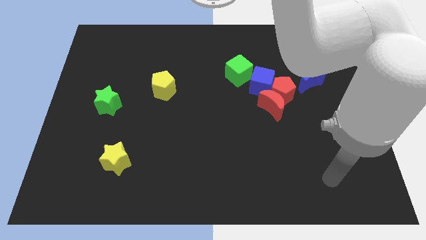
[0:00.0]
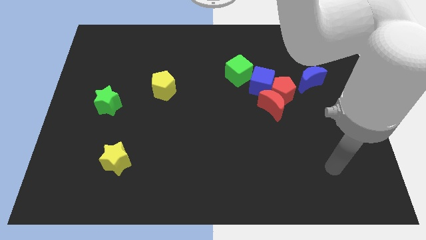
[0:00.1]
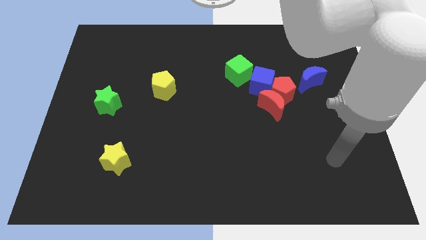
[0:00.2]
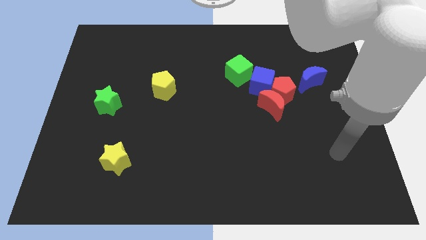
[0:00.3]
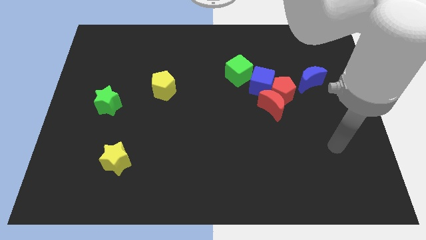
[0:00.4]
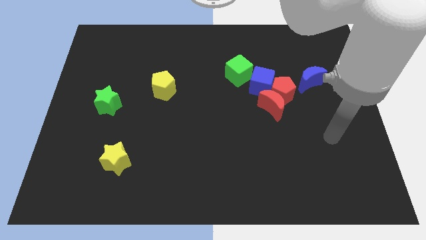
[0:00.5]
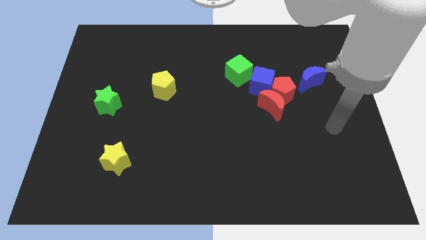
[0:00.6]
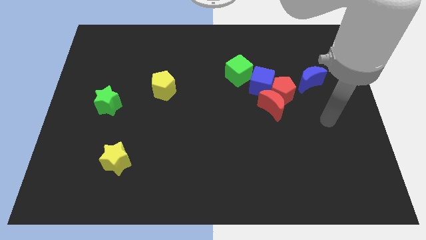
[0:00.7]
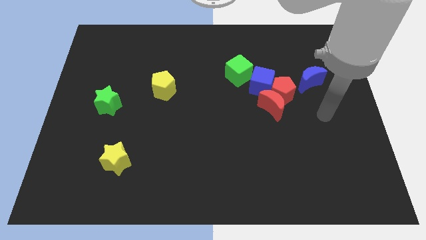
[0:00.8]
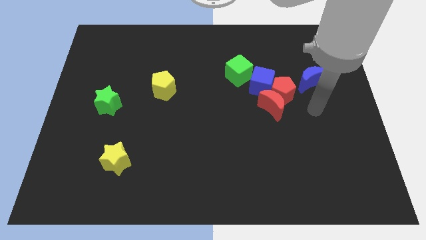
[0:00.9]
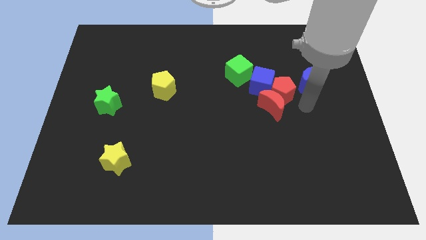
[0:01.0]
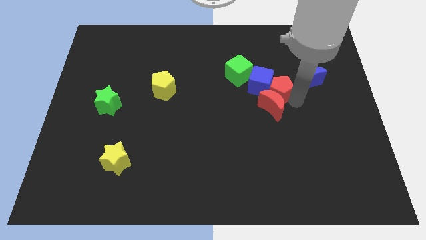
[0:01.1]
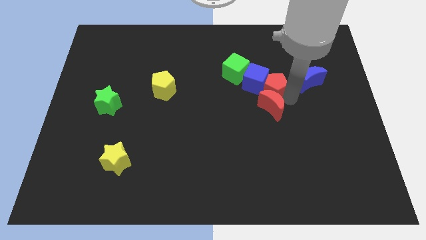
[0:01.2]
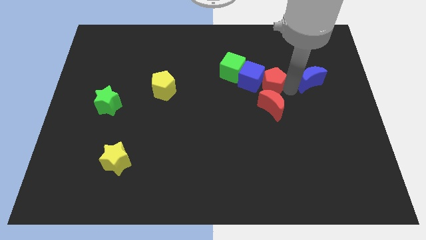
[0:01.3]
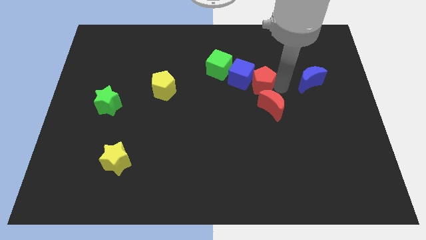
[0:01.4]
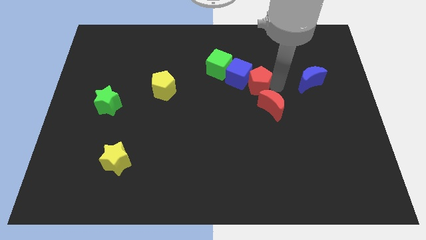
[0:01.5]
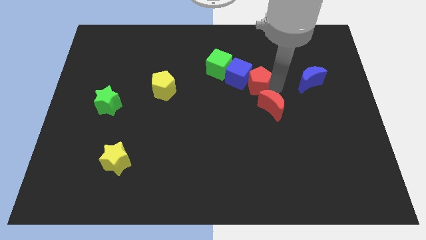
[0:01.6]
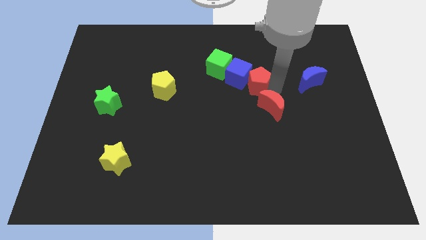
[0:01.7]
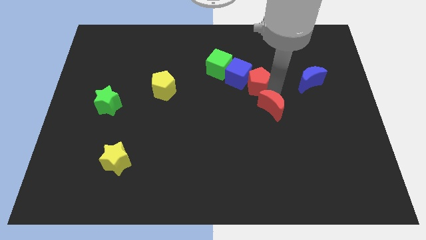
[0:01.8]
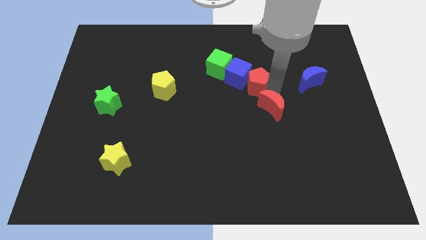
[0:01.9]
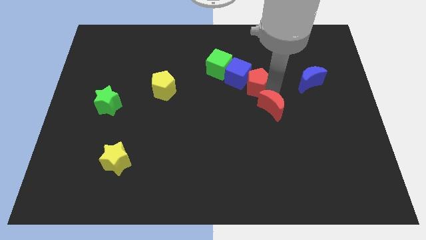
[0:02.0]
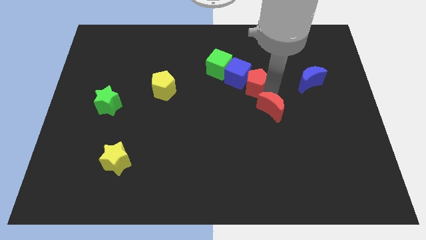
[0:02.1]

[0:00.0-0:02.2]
pull the red moon apart from the red pentagon and blue cube

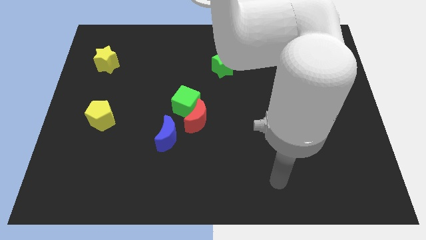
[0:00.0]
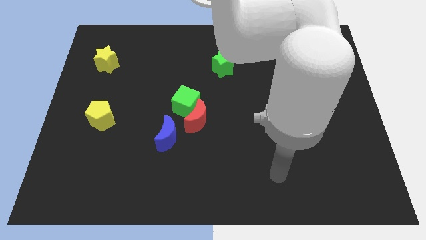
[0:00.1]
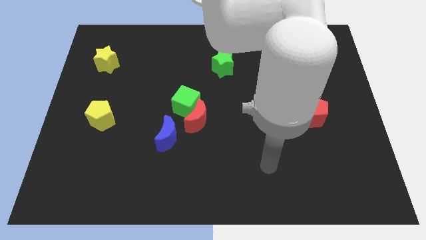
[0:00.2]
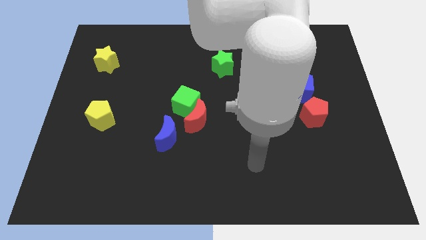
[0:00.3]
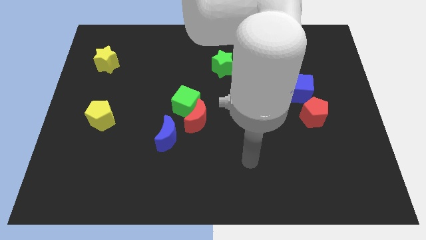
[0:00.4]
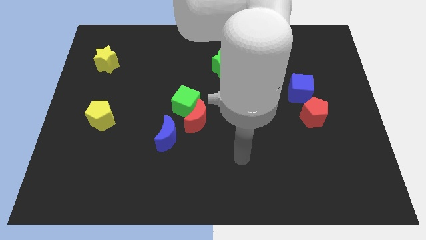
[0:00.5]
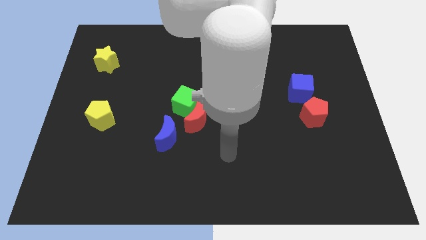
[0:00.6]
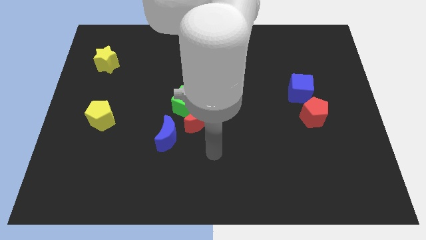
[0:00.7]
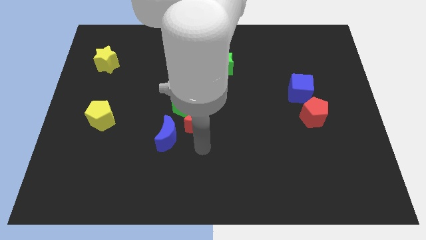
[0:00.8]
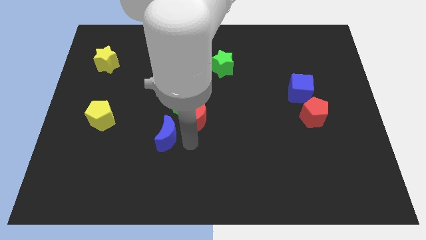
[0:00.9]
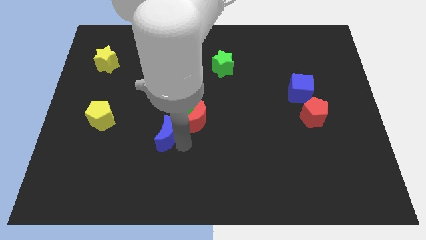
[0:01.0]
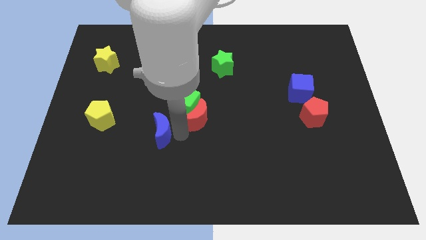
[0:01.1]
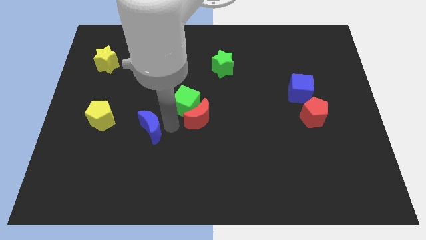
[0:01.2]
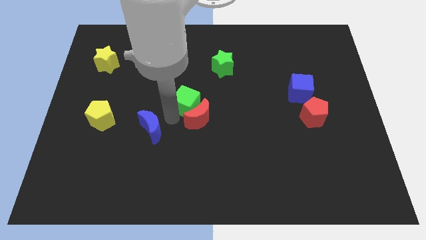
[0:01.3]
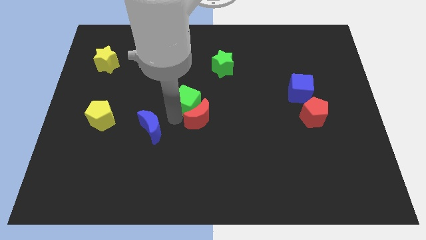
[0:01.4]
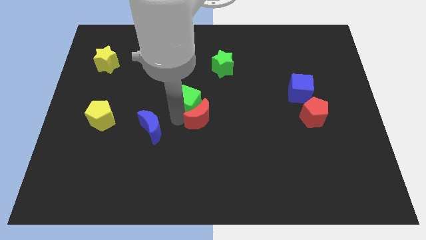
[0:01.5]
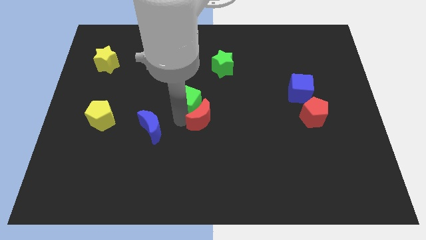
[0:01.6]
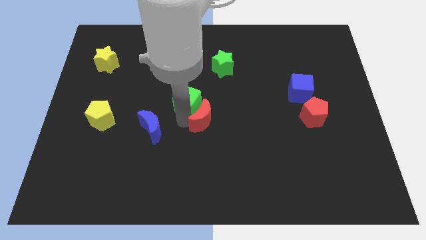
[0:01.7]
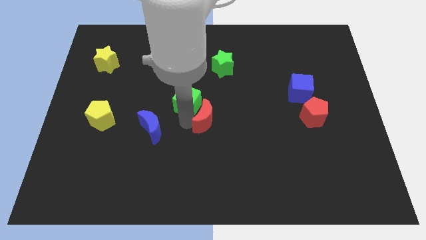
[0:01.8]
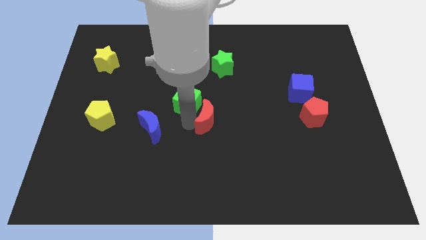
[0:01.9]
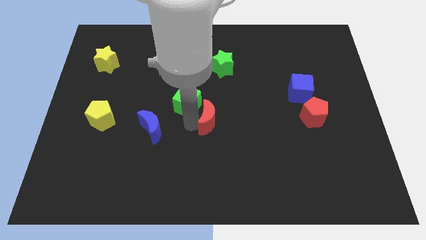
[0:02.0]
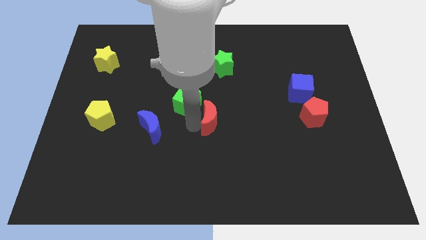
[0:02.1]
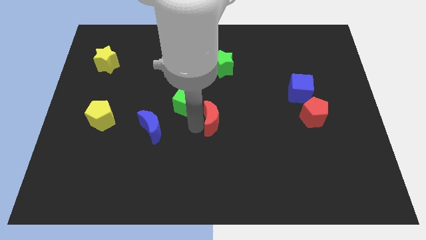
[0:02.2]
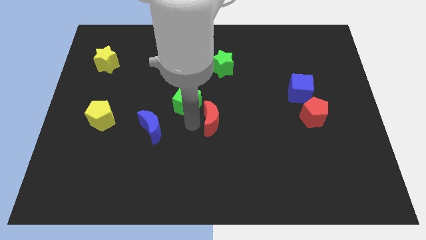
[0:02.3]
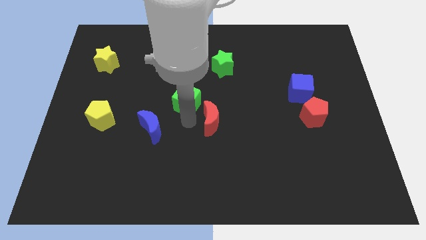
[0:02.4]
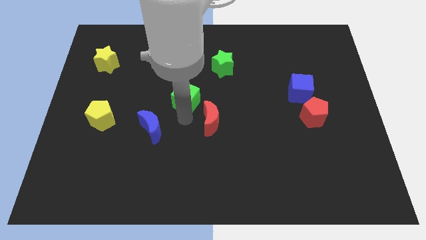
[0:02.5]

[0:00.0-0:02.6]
pull the red moon apart from the green cube and blue moon

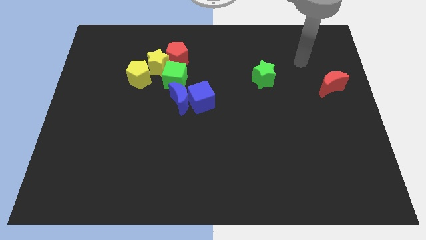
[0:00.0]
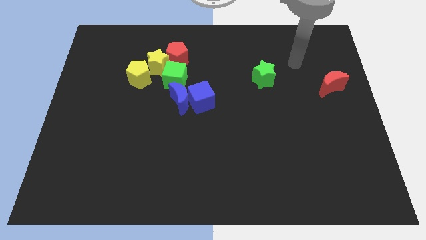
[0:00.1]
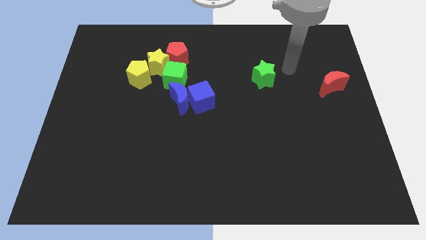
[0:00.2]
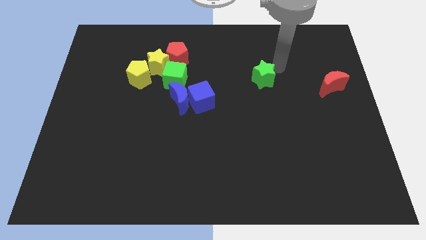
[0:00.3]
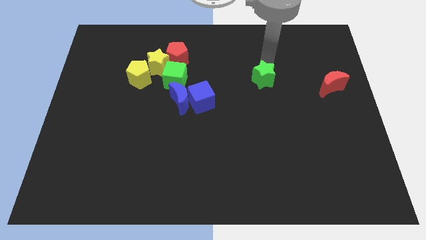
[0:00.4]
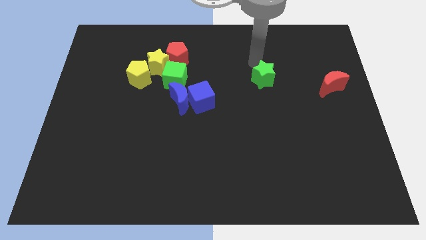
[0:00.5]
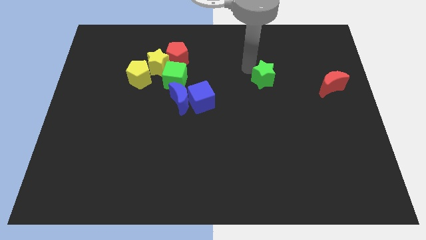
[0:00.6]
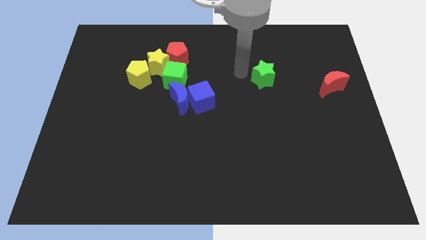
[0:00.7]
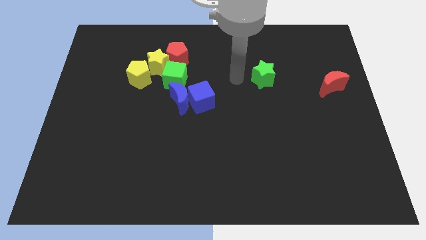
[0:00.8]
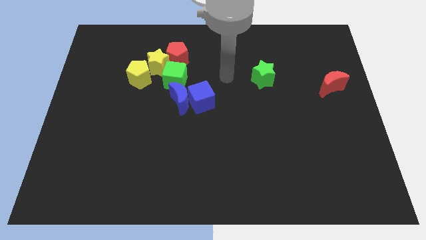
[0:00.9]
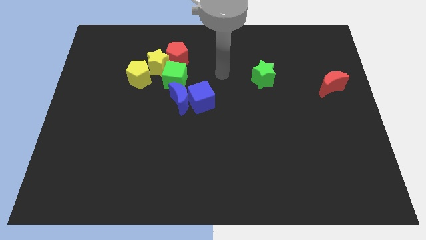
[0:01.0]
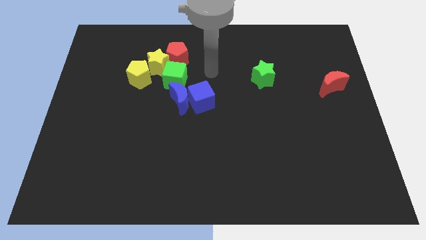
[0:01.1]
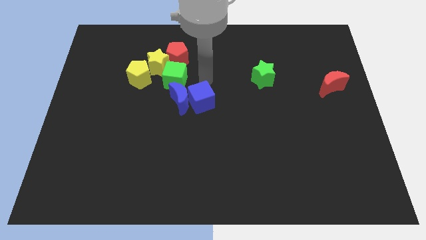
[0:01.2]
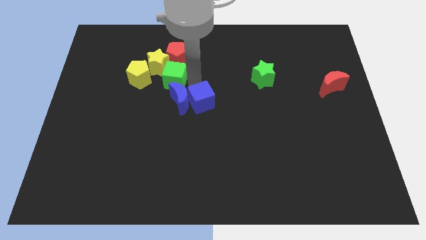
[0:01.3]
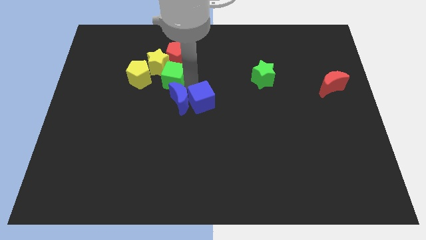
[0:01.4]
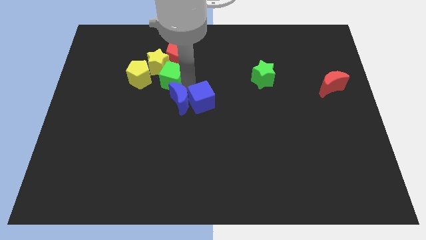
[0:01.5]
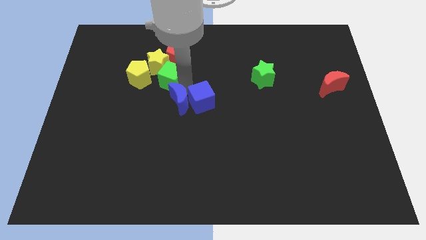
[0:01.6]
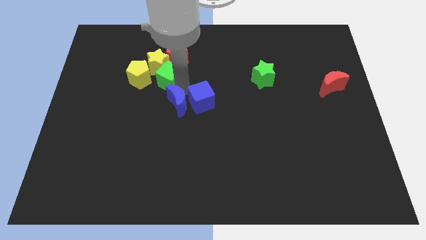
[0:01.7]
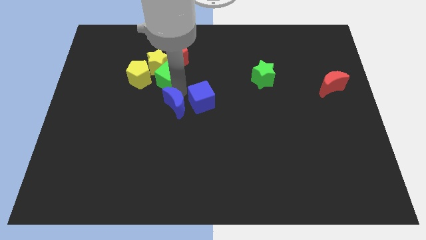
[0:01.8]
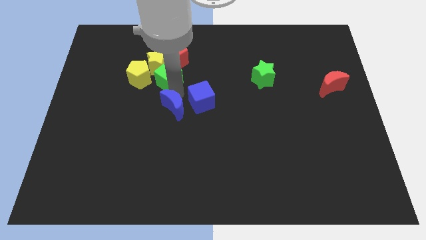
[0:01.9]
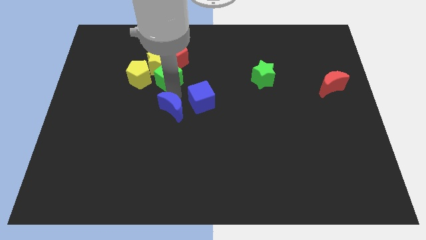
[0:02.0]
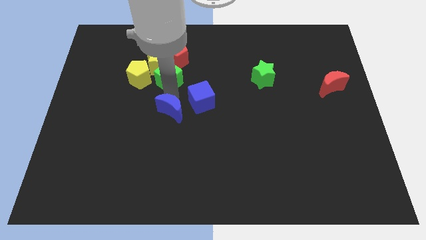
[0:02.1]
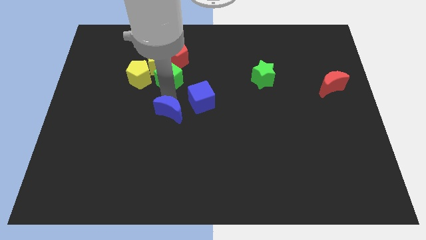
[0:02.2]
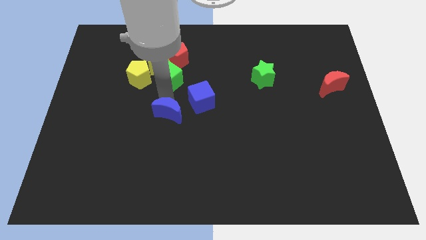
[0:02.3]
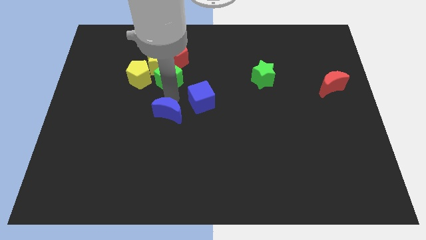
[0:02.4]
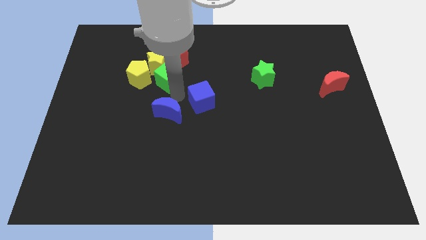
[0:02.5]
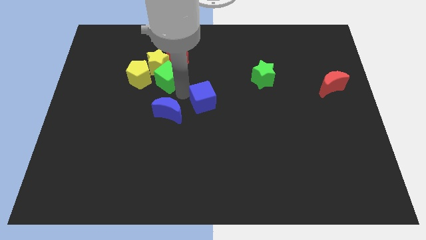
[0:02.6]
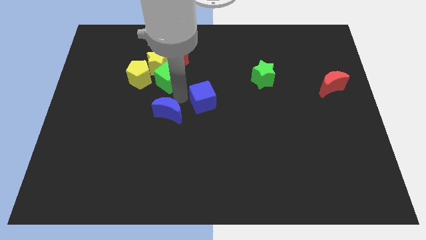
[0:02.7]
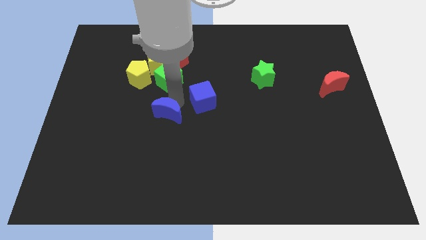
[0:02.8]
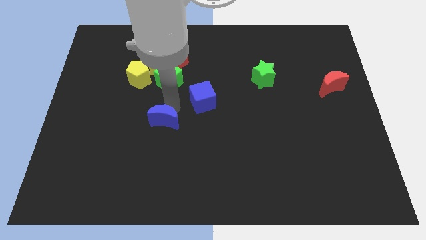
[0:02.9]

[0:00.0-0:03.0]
pull the blue moon apart from the blue cube and green cube

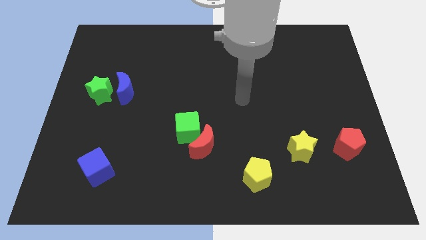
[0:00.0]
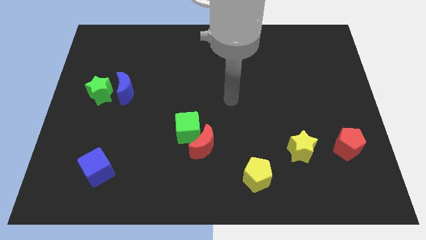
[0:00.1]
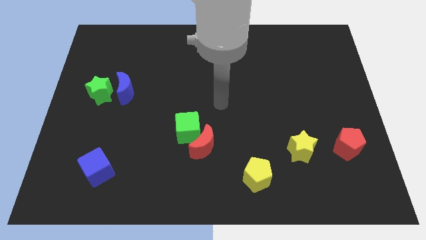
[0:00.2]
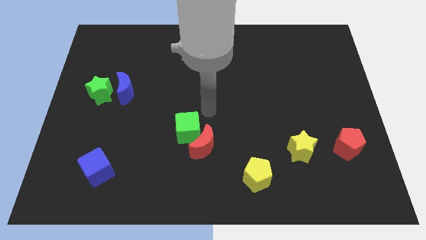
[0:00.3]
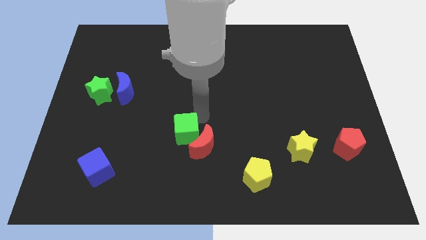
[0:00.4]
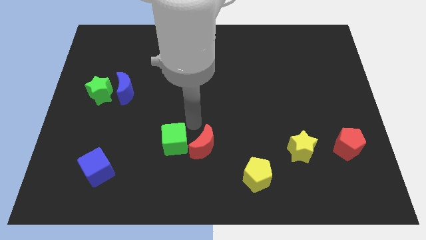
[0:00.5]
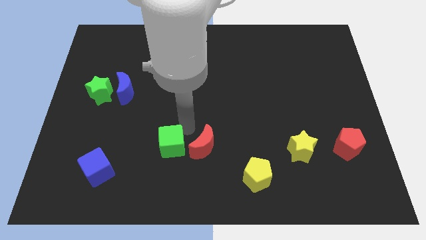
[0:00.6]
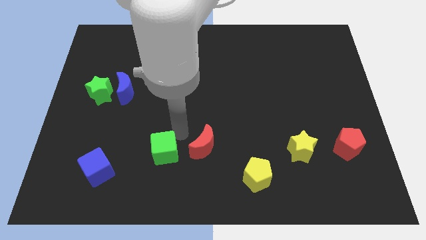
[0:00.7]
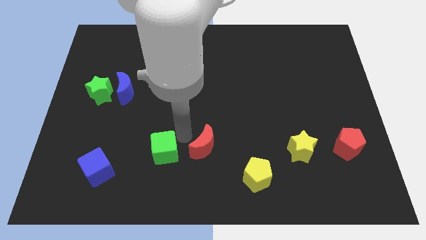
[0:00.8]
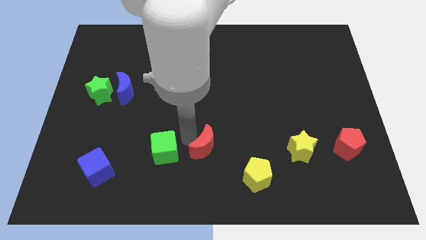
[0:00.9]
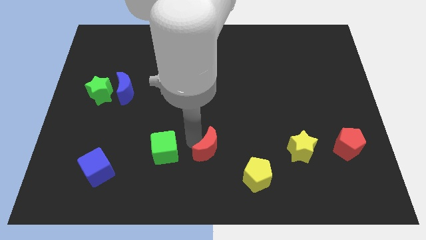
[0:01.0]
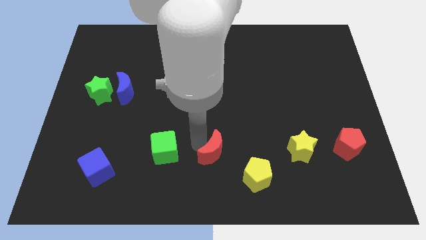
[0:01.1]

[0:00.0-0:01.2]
move the red moon away from the green cube

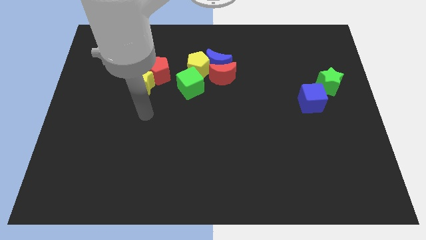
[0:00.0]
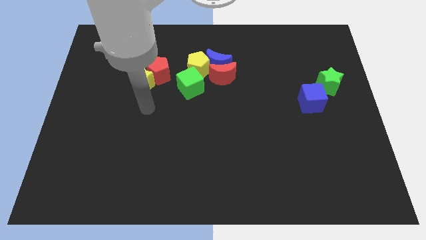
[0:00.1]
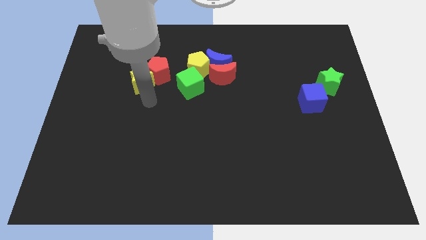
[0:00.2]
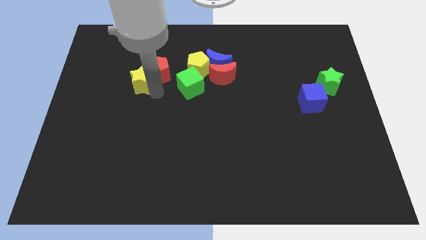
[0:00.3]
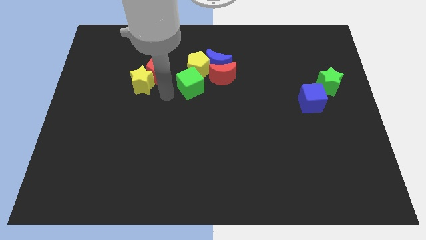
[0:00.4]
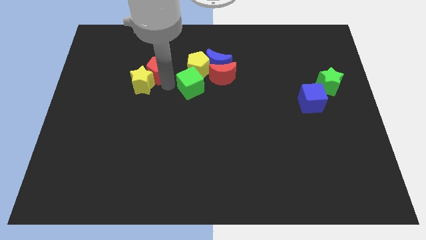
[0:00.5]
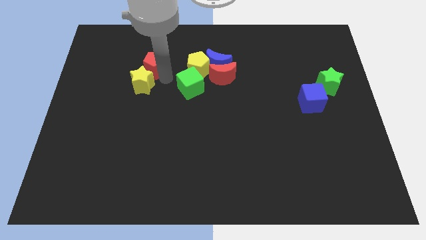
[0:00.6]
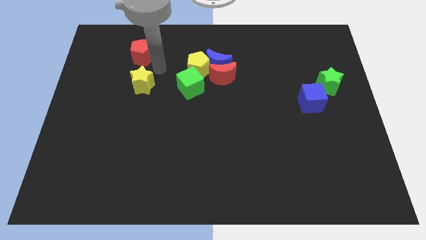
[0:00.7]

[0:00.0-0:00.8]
move the yellow star away from the red pentagon
